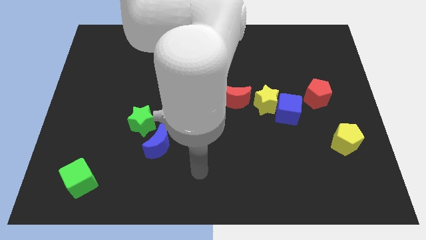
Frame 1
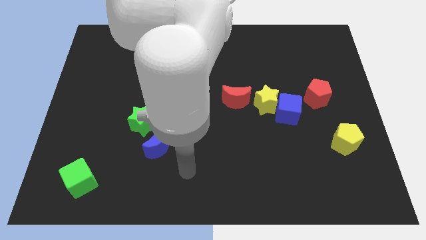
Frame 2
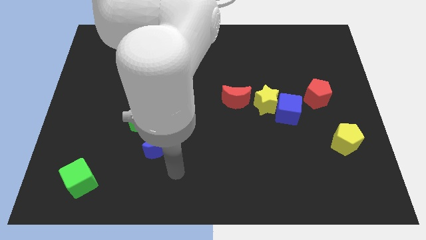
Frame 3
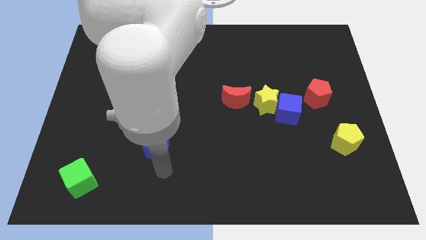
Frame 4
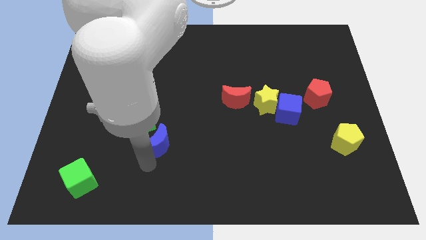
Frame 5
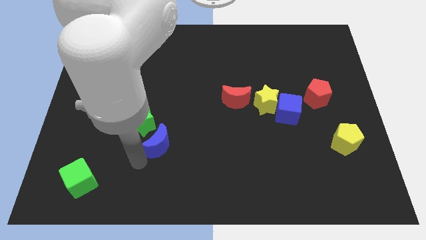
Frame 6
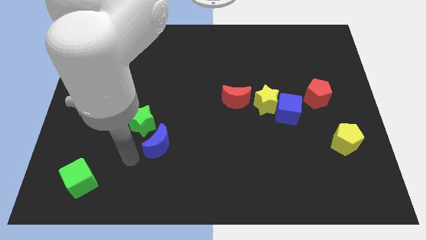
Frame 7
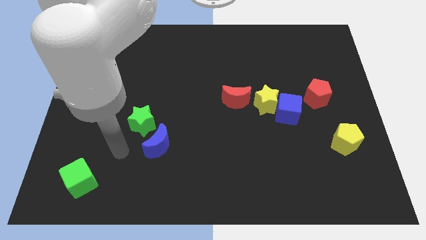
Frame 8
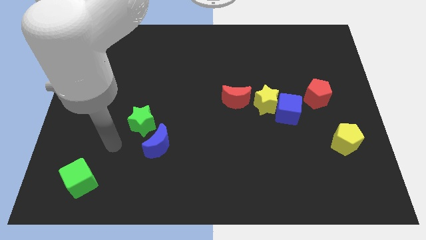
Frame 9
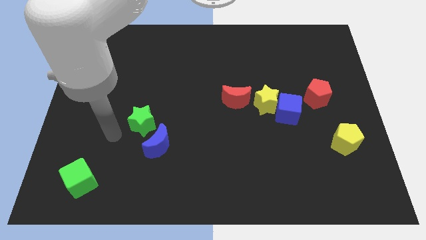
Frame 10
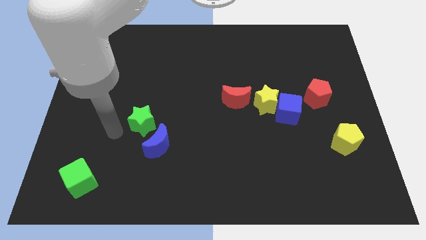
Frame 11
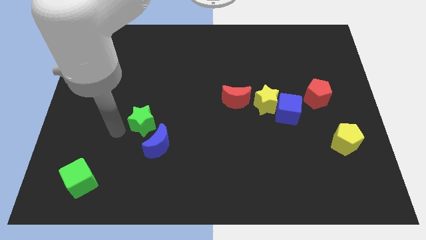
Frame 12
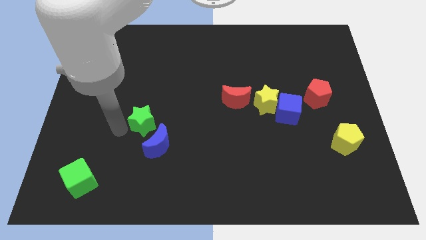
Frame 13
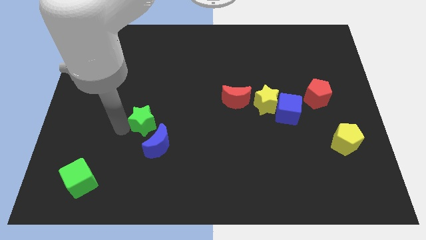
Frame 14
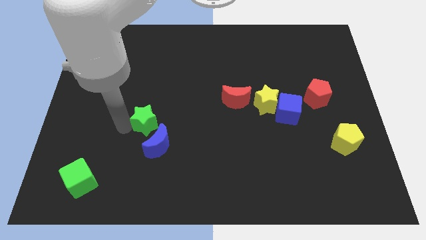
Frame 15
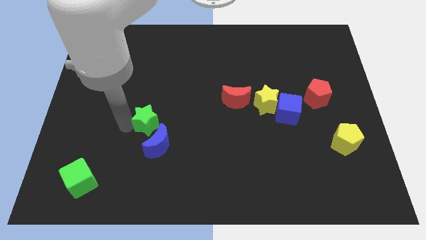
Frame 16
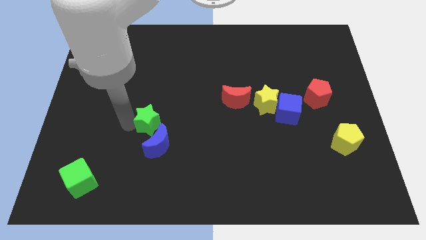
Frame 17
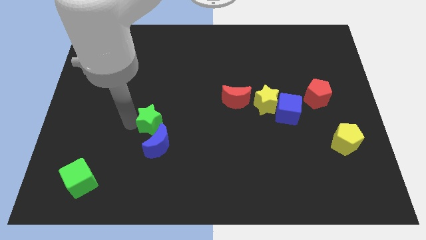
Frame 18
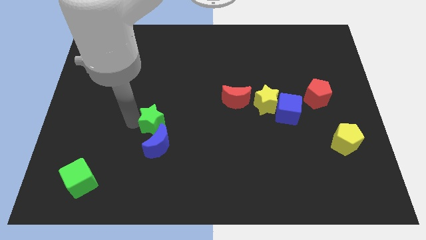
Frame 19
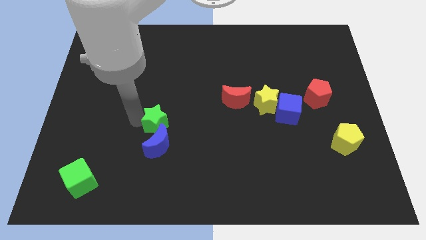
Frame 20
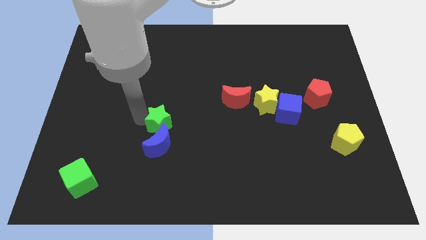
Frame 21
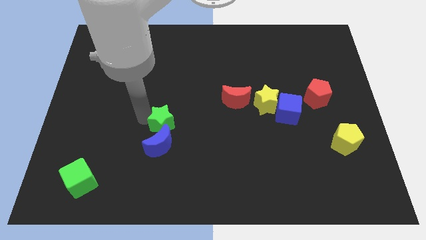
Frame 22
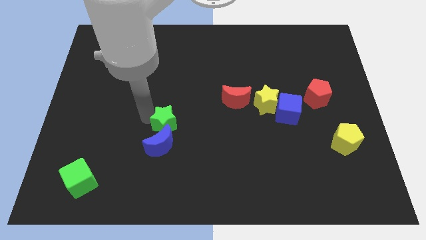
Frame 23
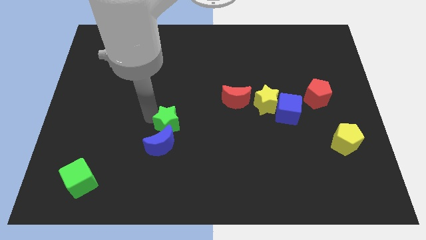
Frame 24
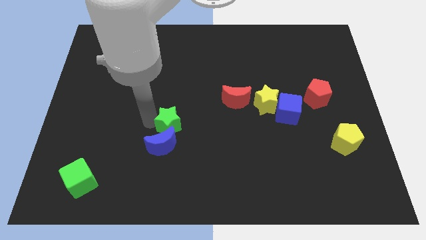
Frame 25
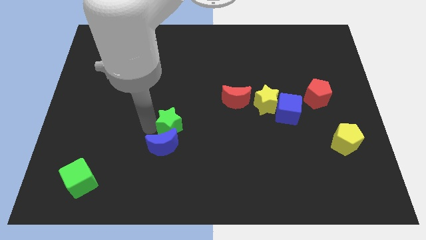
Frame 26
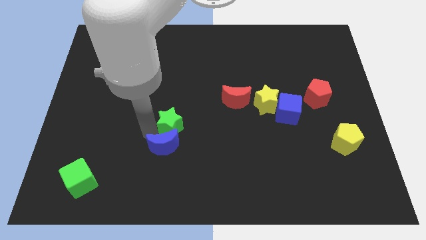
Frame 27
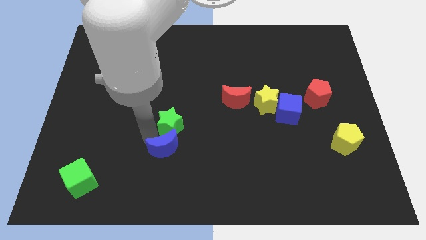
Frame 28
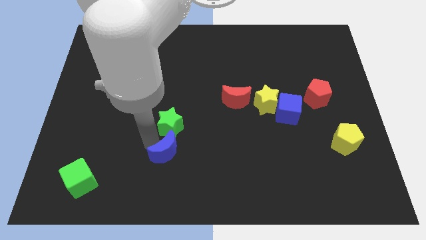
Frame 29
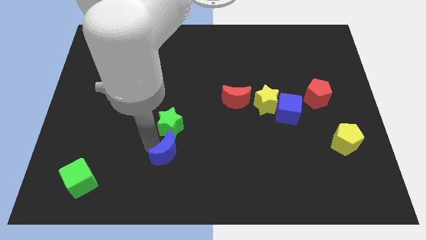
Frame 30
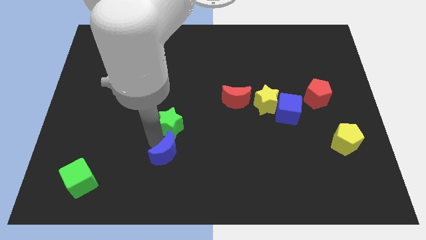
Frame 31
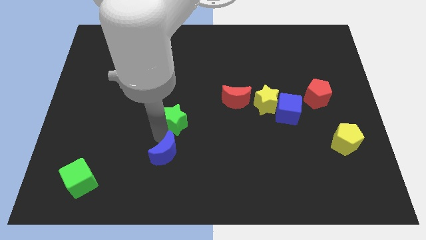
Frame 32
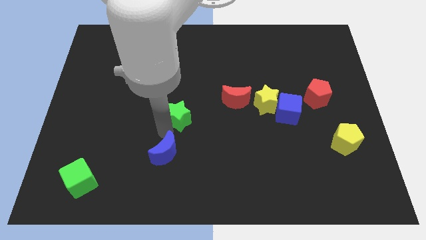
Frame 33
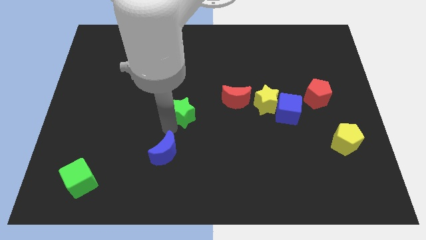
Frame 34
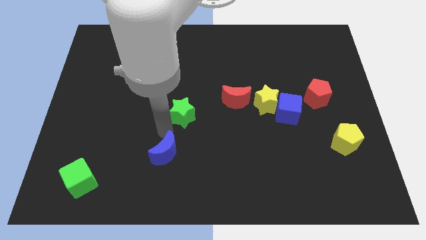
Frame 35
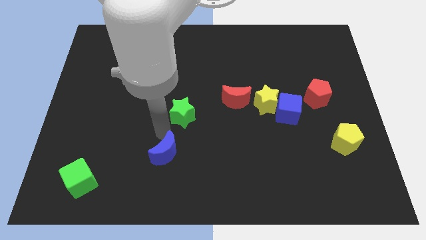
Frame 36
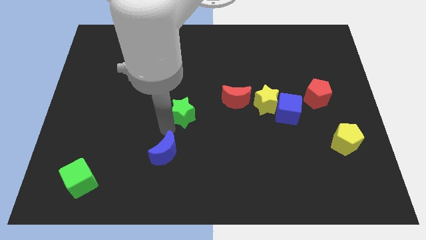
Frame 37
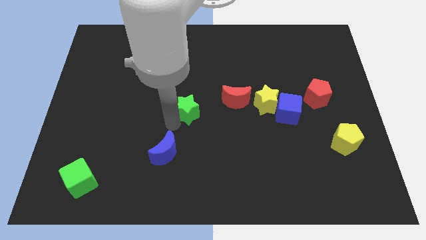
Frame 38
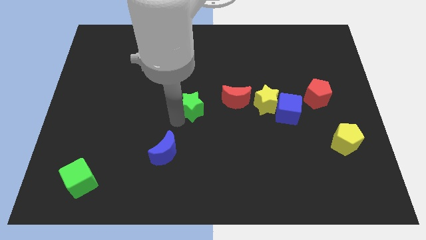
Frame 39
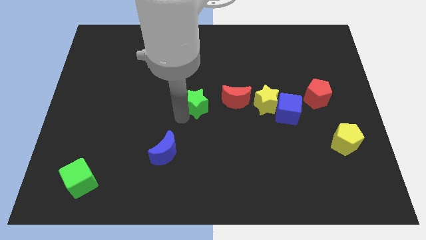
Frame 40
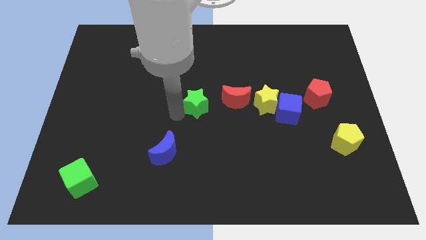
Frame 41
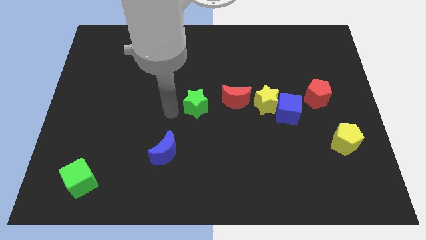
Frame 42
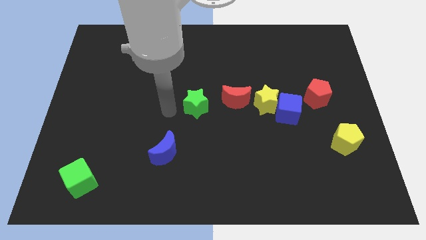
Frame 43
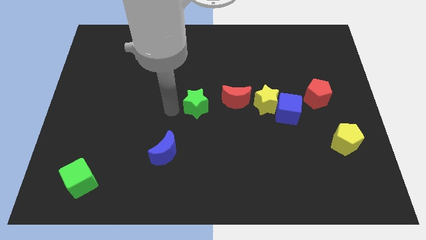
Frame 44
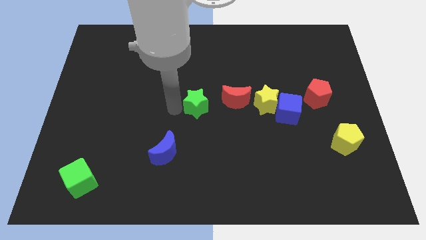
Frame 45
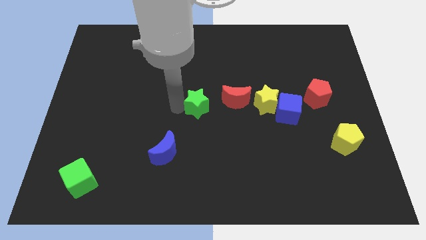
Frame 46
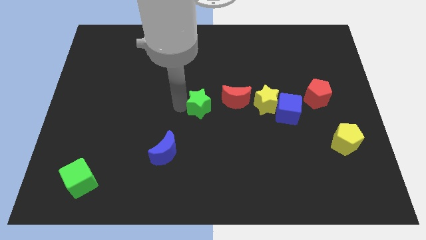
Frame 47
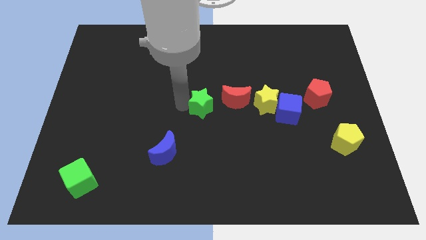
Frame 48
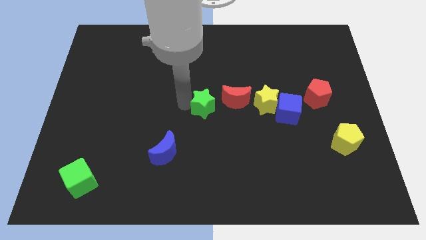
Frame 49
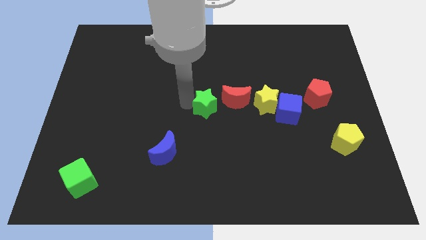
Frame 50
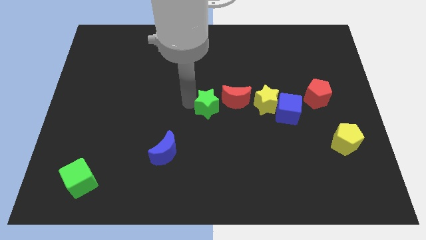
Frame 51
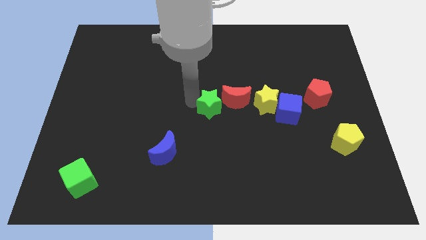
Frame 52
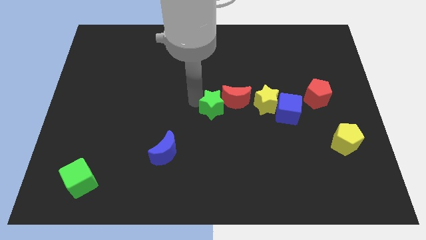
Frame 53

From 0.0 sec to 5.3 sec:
push the green star close to the red moon

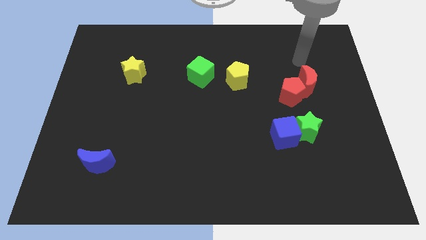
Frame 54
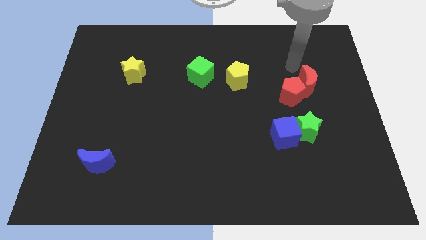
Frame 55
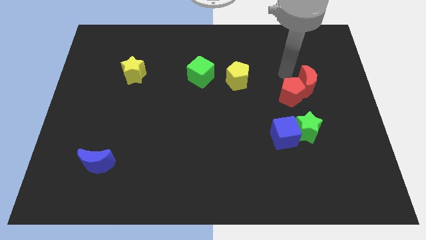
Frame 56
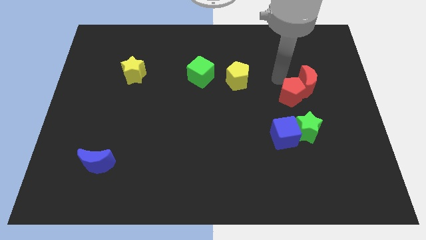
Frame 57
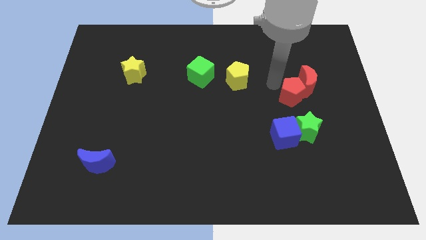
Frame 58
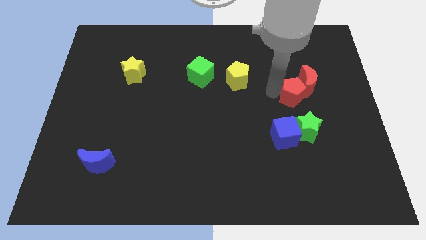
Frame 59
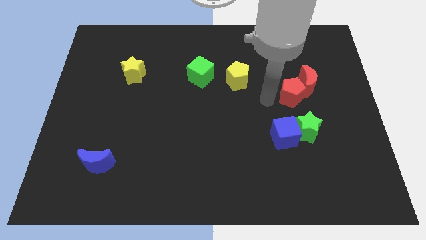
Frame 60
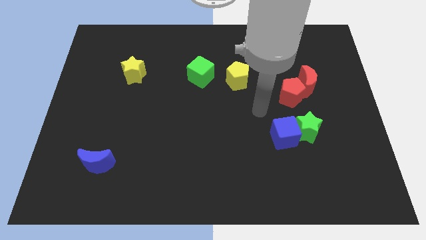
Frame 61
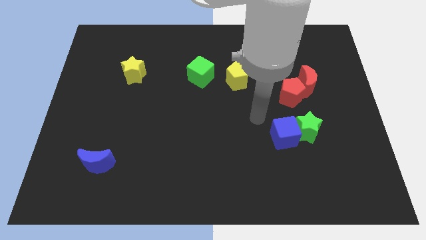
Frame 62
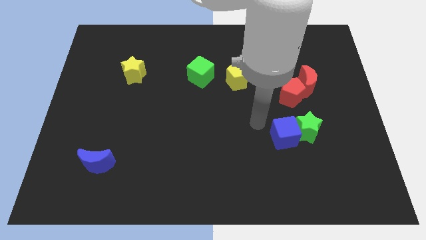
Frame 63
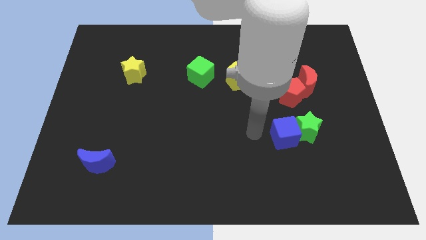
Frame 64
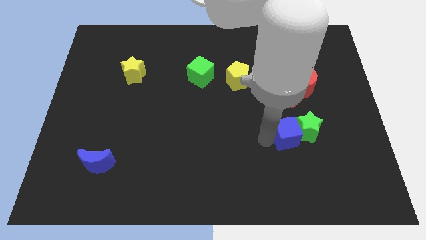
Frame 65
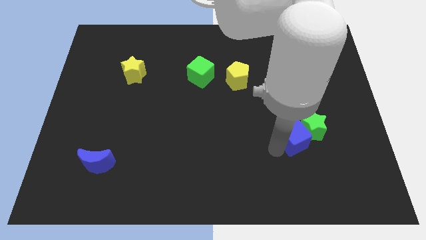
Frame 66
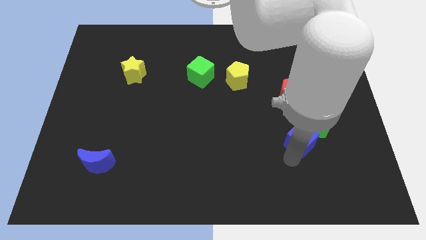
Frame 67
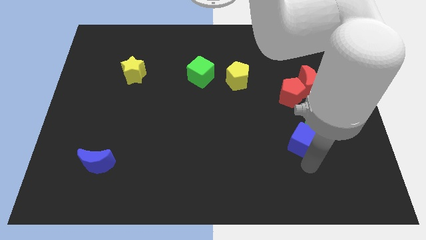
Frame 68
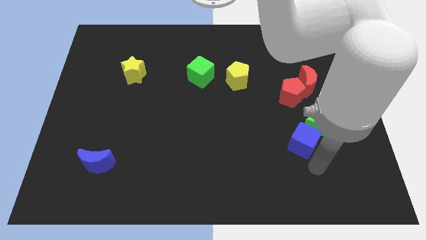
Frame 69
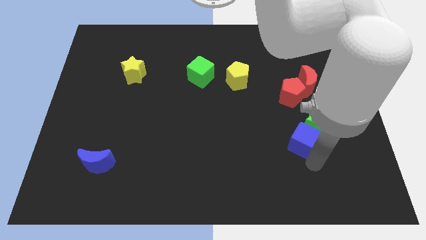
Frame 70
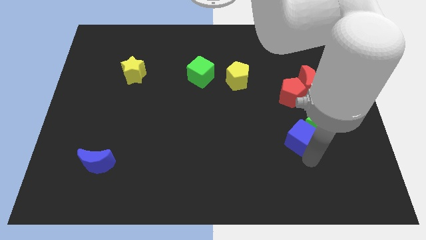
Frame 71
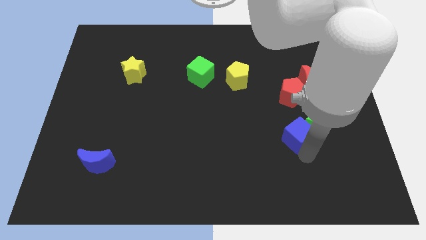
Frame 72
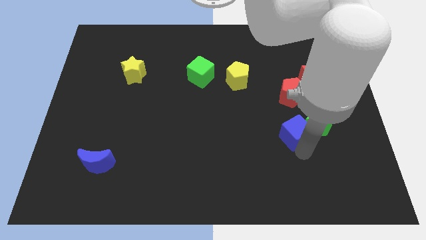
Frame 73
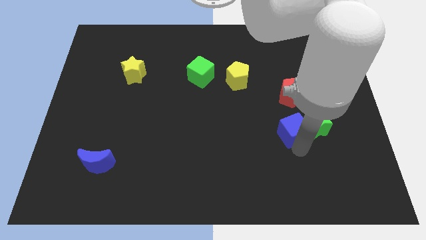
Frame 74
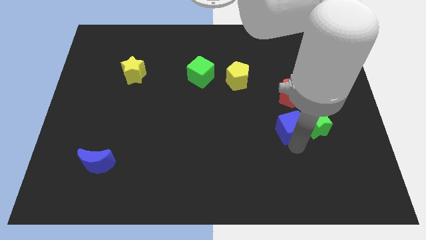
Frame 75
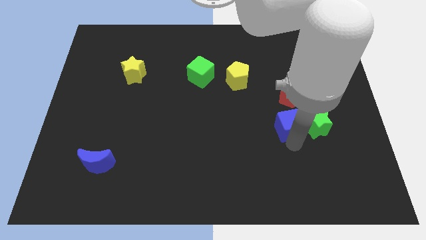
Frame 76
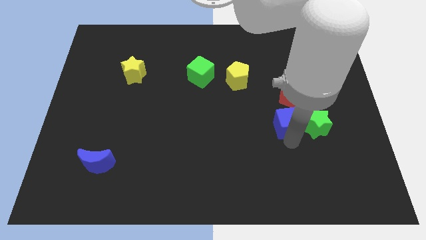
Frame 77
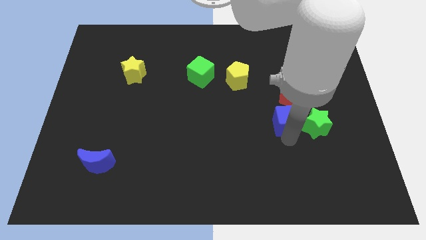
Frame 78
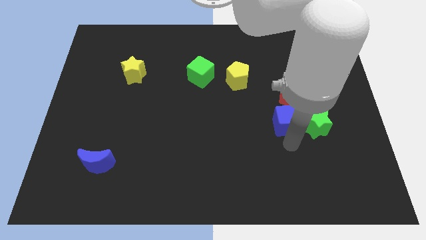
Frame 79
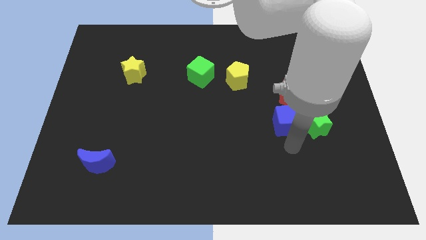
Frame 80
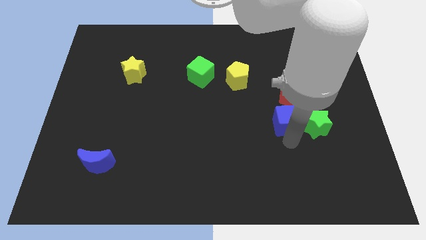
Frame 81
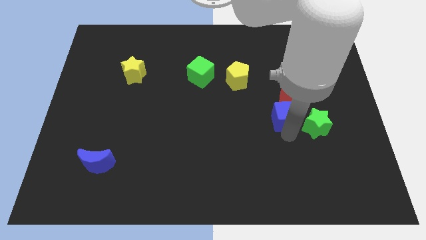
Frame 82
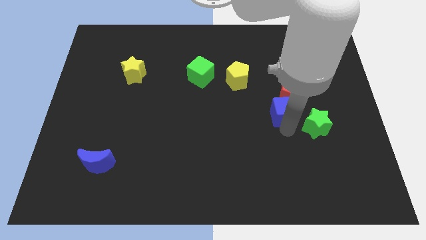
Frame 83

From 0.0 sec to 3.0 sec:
slide the blue cube close to the red pentagon
